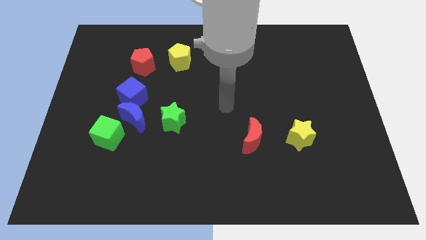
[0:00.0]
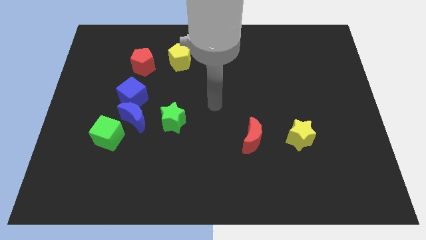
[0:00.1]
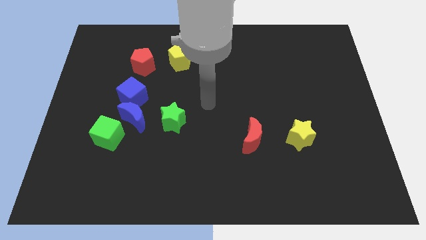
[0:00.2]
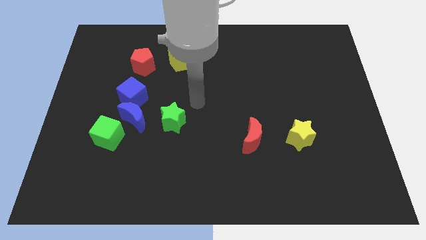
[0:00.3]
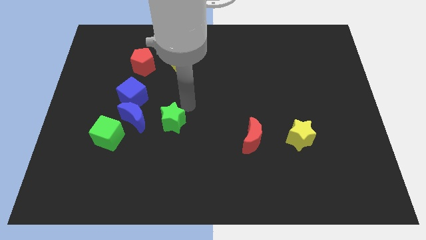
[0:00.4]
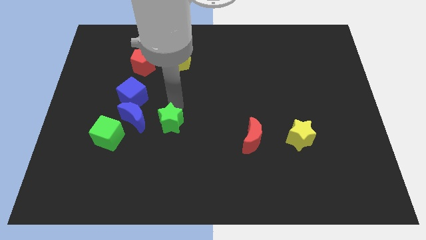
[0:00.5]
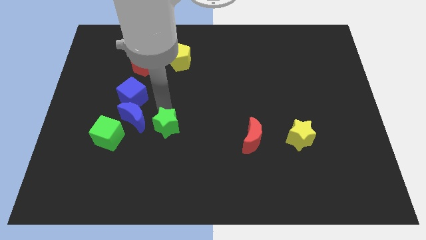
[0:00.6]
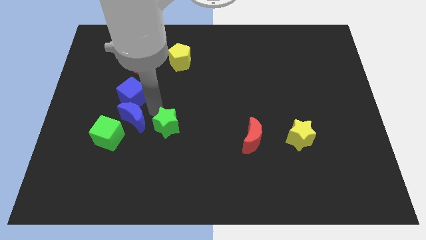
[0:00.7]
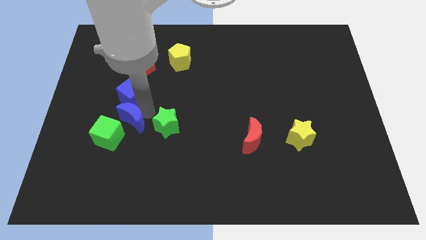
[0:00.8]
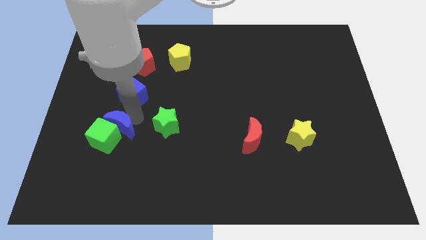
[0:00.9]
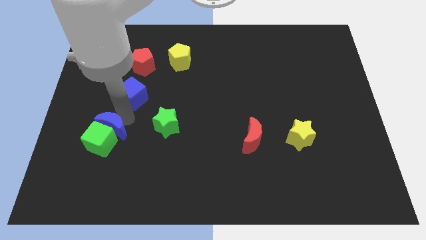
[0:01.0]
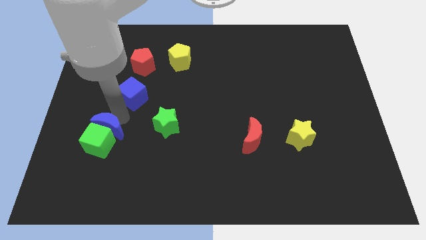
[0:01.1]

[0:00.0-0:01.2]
pull the blue cube apart from the blue moon

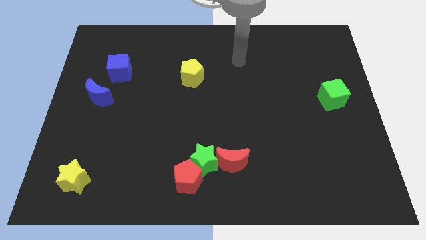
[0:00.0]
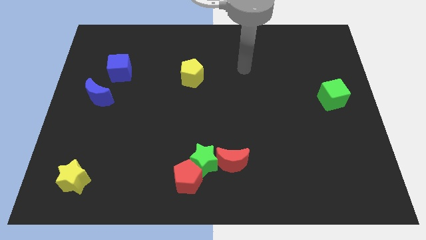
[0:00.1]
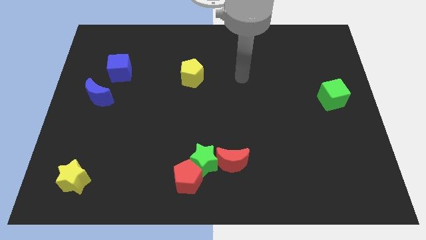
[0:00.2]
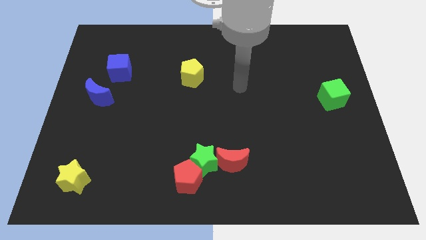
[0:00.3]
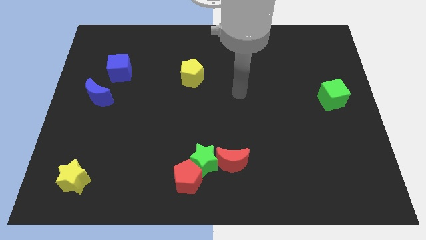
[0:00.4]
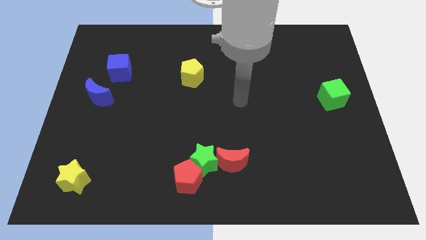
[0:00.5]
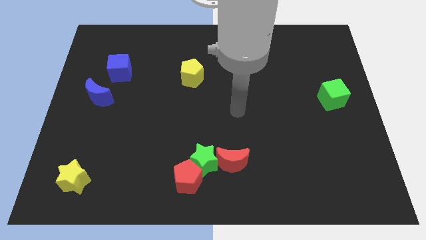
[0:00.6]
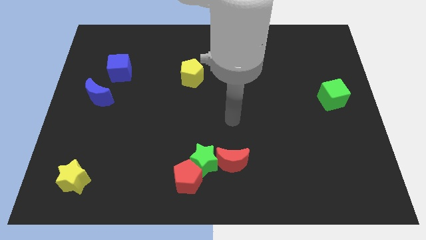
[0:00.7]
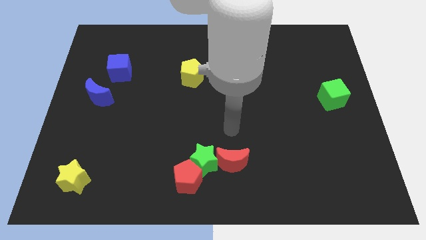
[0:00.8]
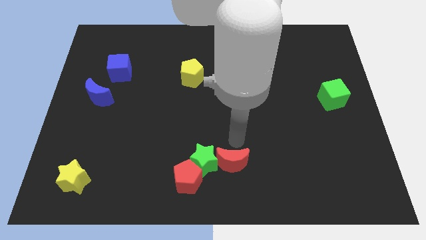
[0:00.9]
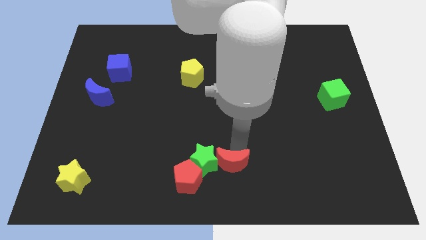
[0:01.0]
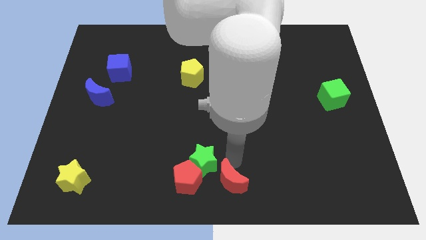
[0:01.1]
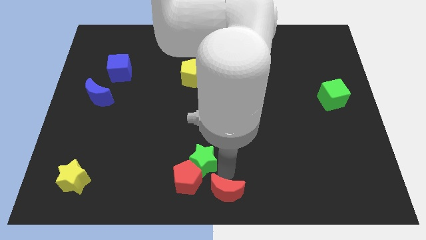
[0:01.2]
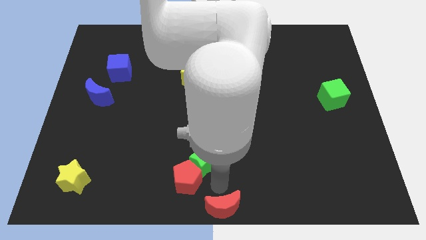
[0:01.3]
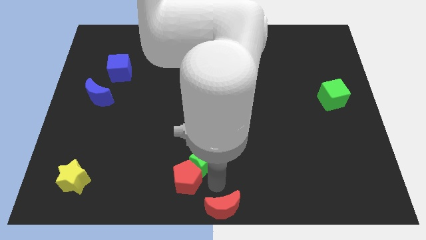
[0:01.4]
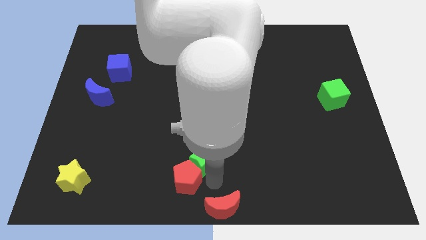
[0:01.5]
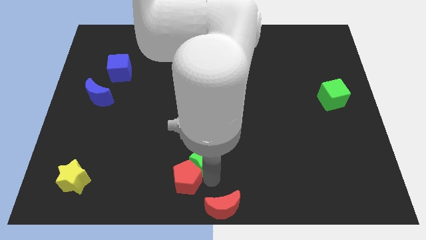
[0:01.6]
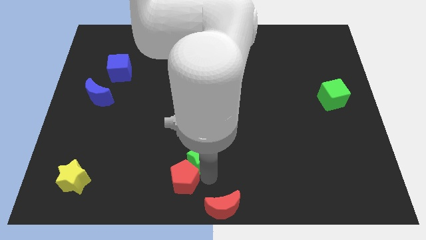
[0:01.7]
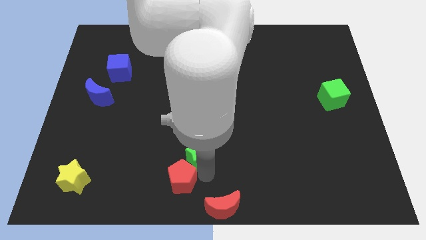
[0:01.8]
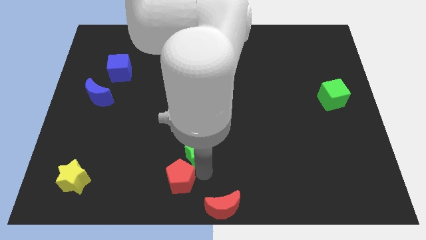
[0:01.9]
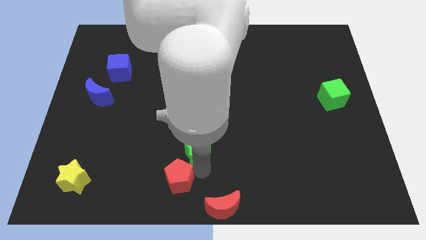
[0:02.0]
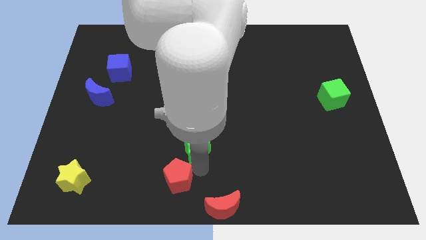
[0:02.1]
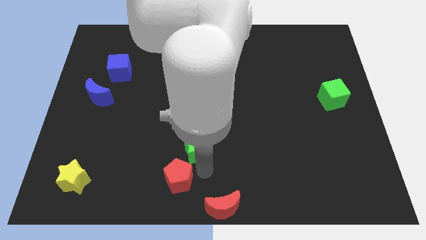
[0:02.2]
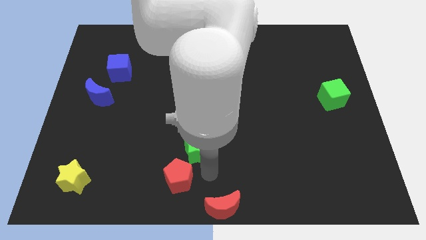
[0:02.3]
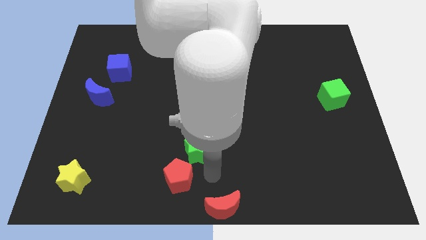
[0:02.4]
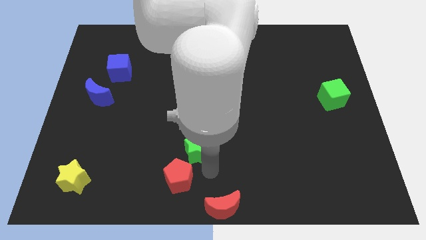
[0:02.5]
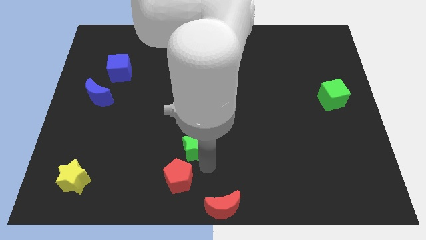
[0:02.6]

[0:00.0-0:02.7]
move the green star away from the red pentagon and red moon

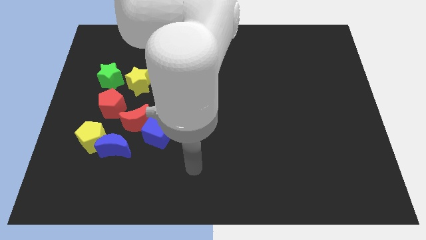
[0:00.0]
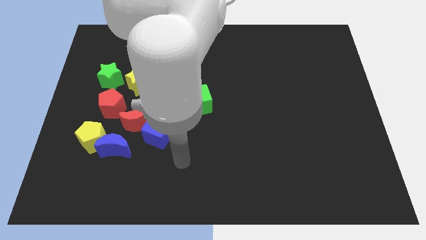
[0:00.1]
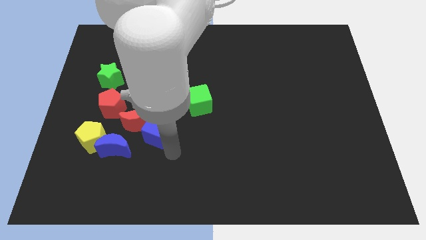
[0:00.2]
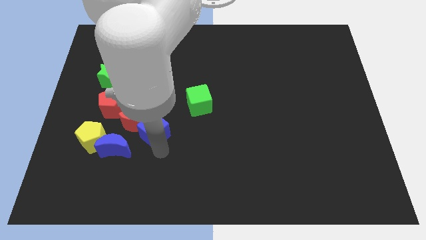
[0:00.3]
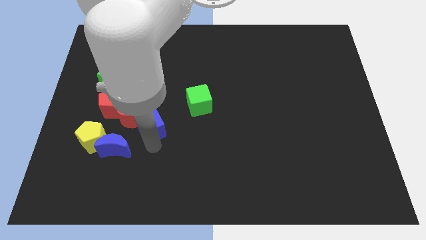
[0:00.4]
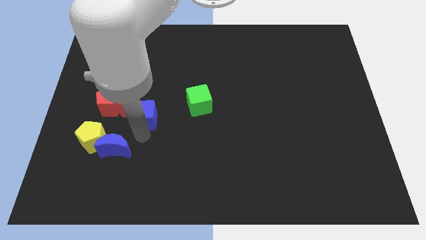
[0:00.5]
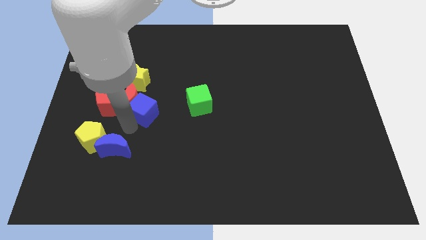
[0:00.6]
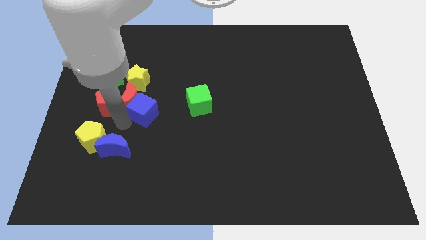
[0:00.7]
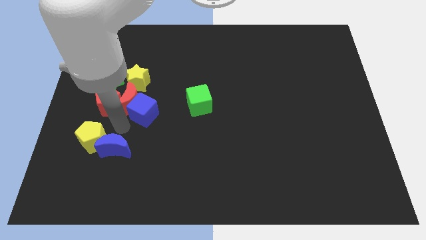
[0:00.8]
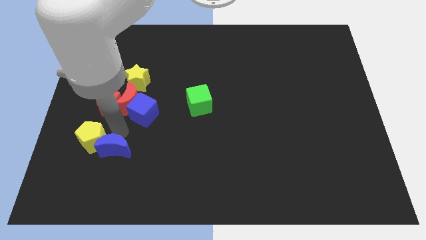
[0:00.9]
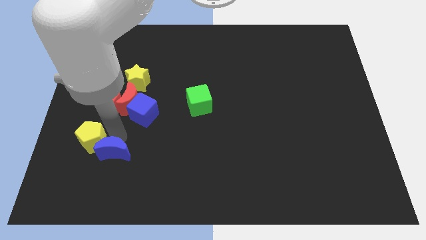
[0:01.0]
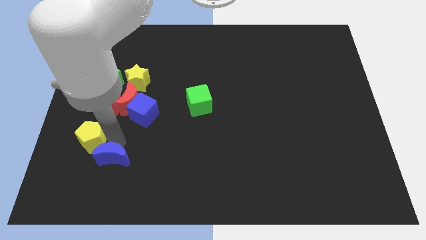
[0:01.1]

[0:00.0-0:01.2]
pull the blue moon apart from the group

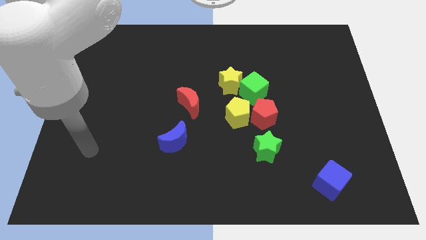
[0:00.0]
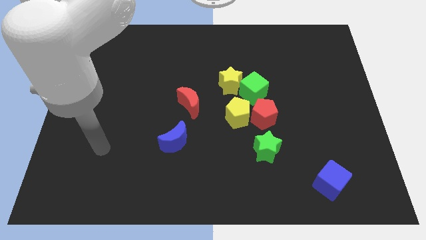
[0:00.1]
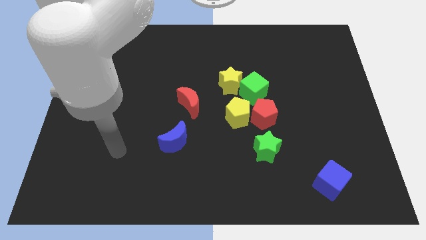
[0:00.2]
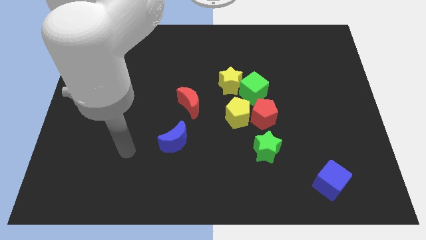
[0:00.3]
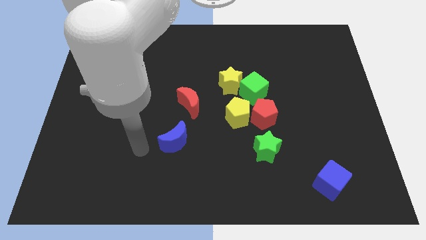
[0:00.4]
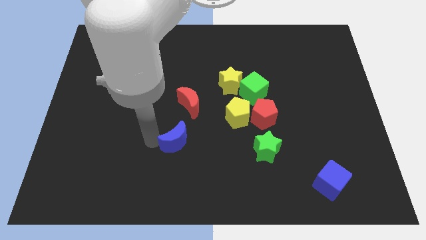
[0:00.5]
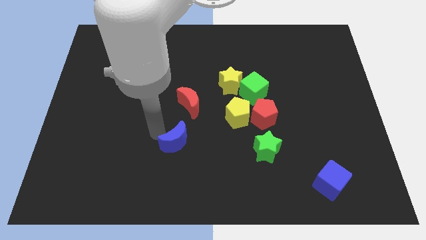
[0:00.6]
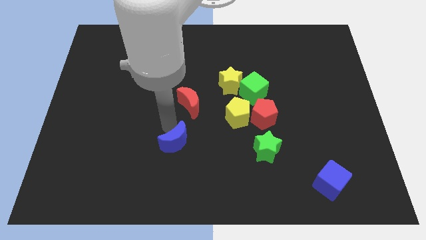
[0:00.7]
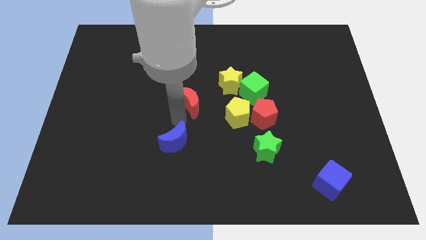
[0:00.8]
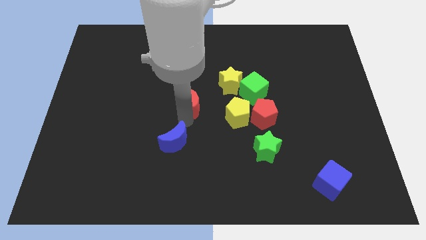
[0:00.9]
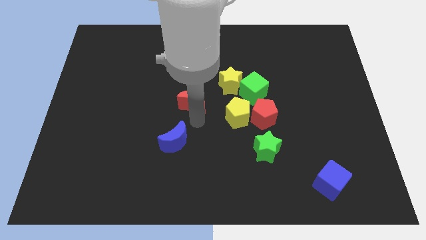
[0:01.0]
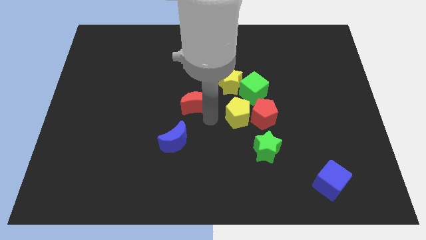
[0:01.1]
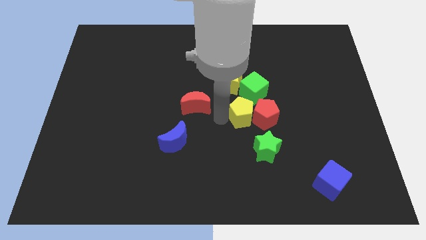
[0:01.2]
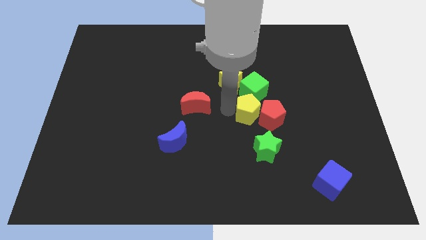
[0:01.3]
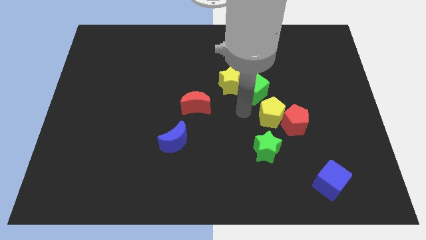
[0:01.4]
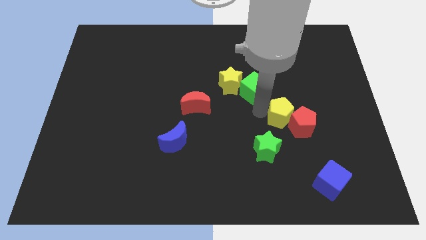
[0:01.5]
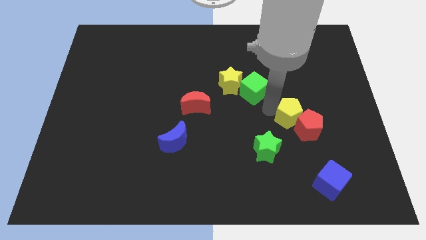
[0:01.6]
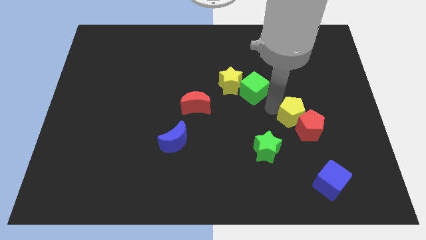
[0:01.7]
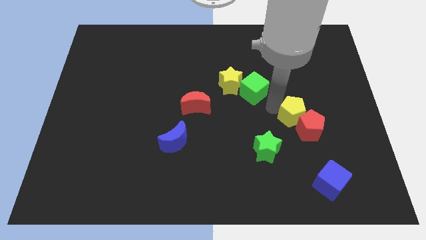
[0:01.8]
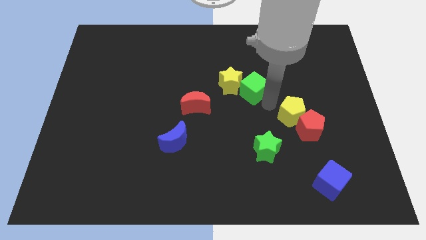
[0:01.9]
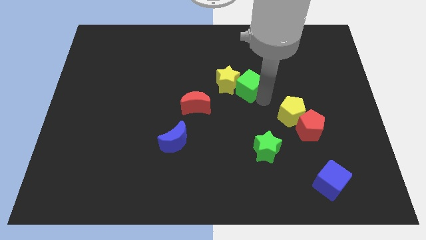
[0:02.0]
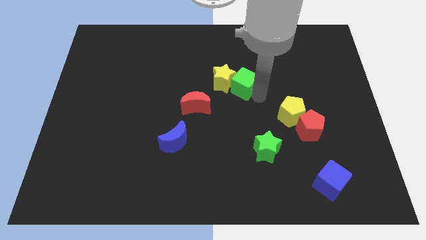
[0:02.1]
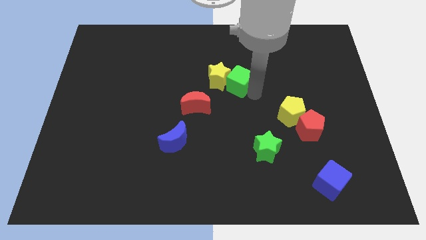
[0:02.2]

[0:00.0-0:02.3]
pull the green cube apart from the yellow star, red pentagon, and yellow pentagon

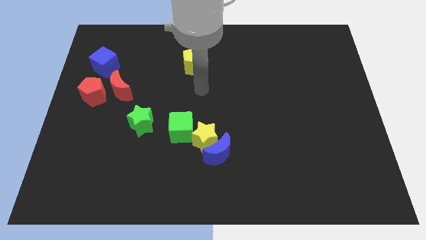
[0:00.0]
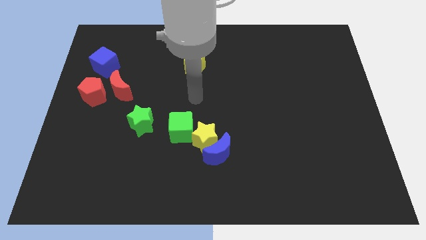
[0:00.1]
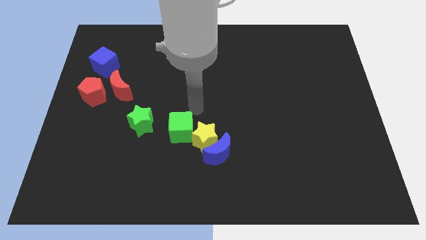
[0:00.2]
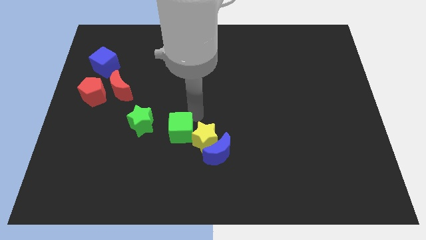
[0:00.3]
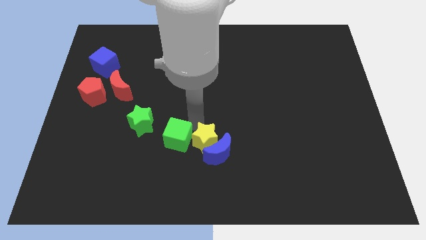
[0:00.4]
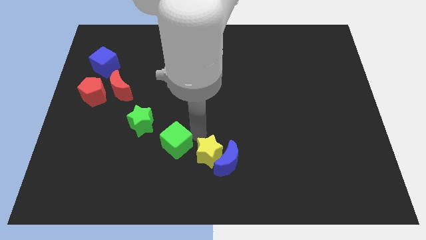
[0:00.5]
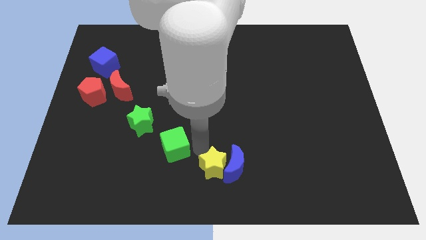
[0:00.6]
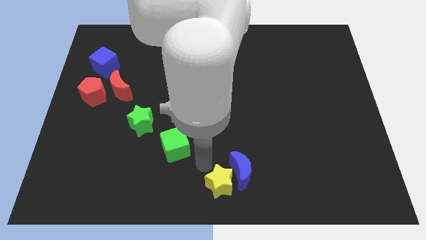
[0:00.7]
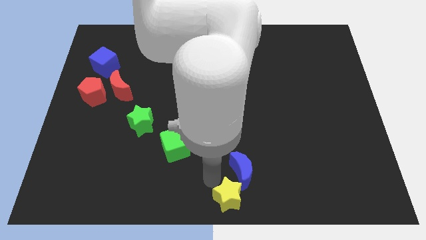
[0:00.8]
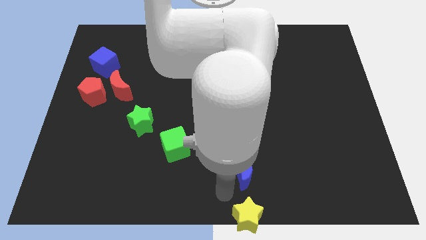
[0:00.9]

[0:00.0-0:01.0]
separate the blue moon from the yellow star

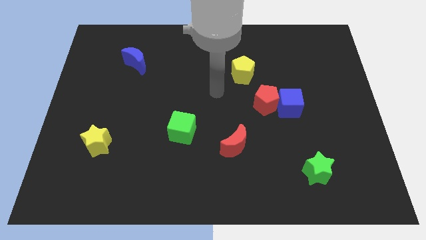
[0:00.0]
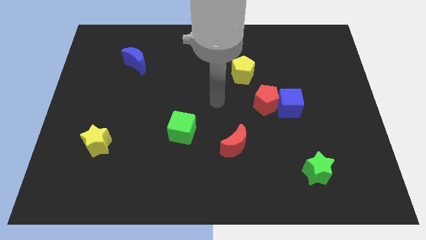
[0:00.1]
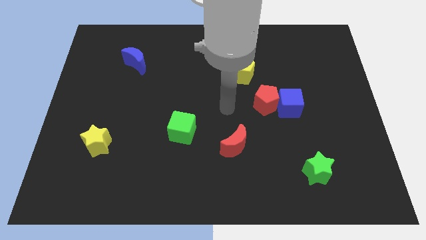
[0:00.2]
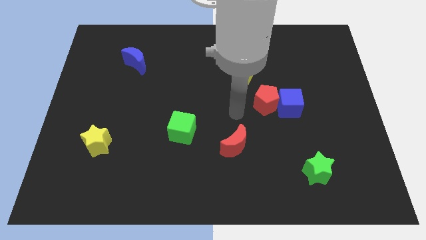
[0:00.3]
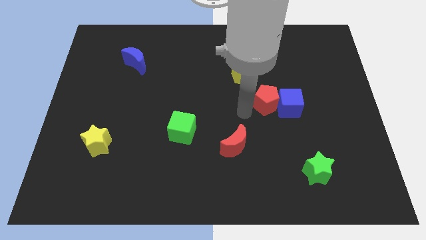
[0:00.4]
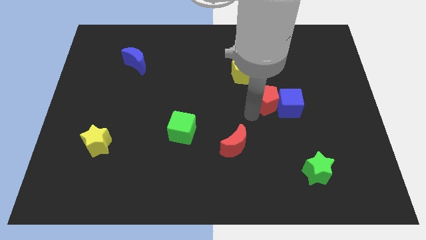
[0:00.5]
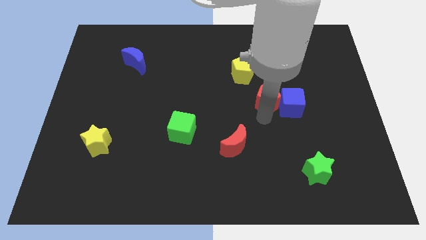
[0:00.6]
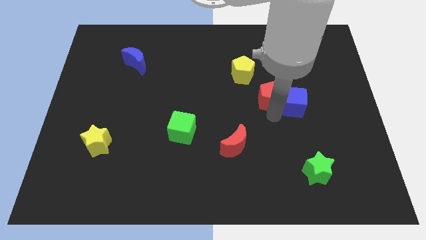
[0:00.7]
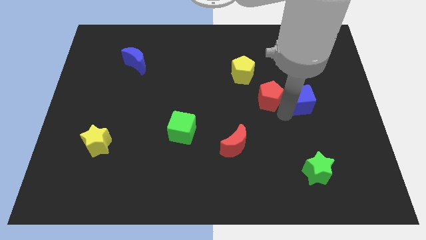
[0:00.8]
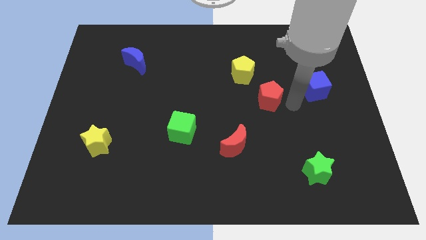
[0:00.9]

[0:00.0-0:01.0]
move the red pentagon away from the blue cube
